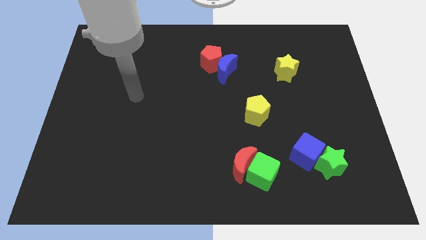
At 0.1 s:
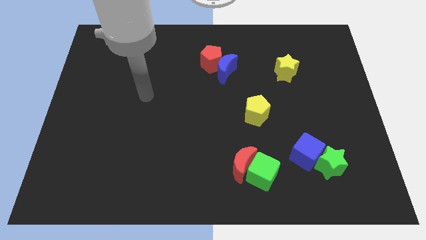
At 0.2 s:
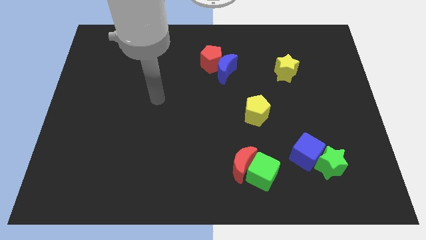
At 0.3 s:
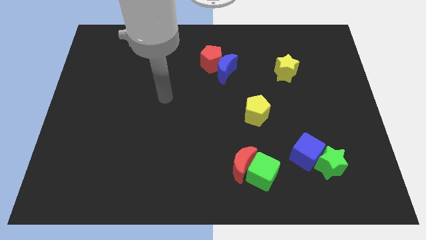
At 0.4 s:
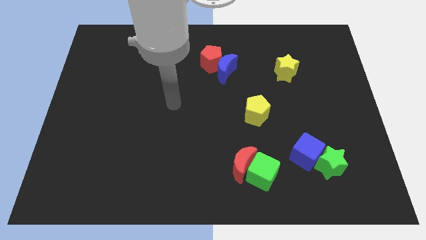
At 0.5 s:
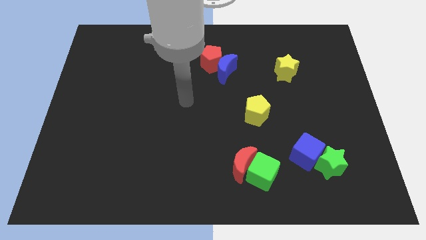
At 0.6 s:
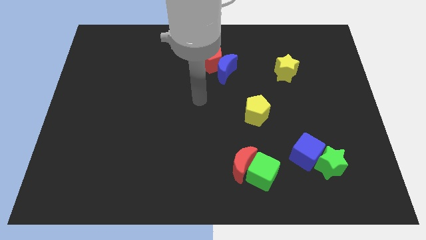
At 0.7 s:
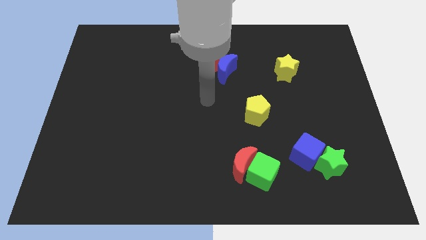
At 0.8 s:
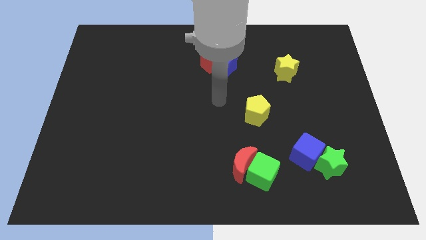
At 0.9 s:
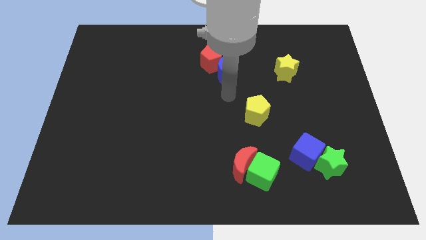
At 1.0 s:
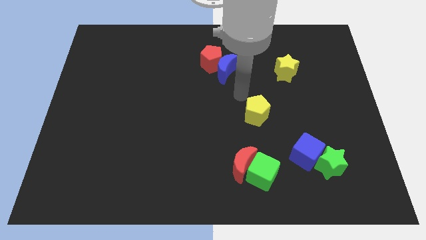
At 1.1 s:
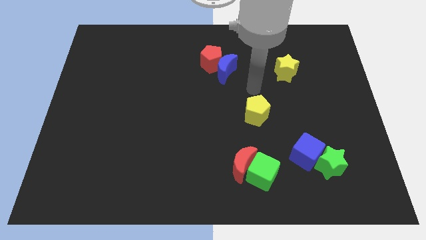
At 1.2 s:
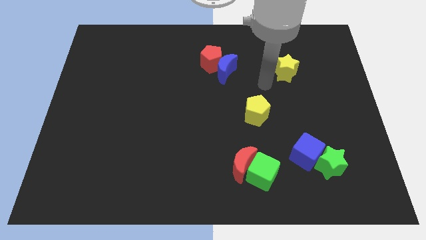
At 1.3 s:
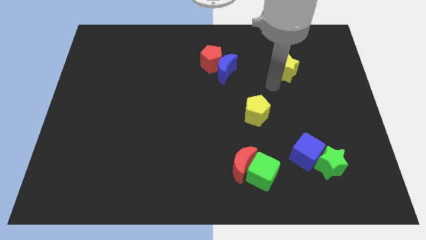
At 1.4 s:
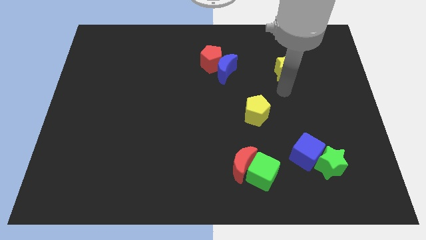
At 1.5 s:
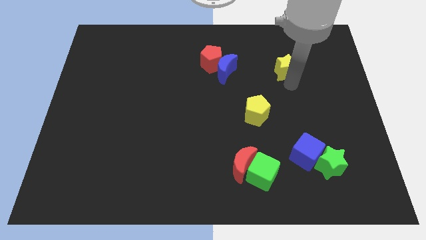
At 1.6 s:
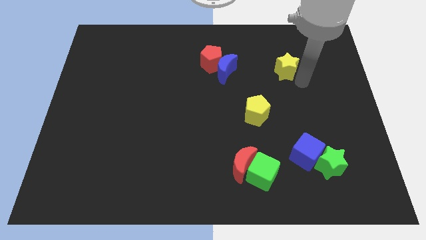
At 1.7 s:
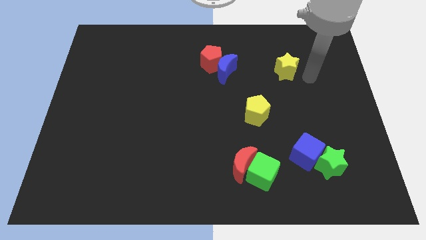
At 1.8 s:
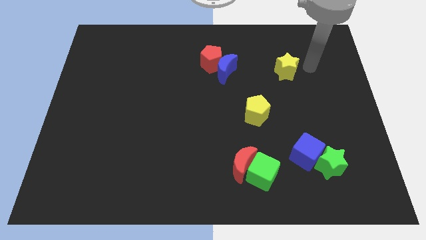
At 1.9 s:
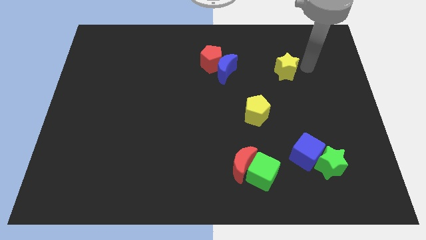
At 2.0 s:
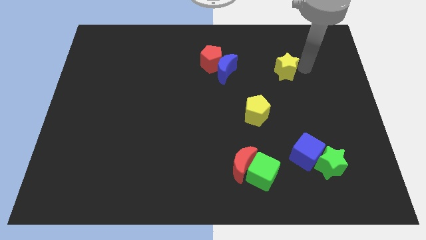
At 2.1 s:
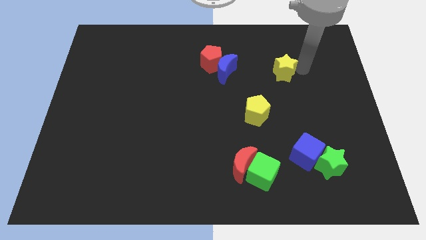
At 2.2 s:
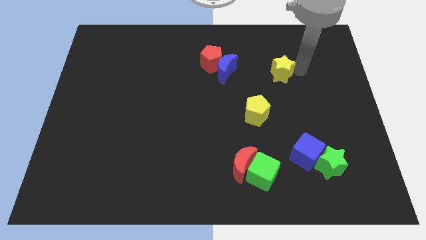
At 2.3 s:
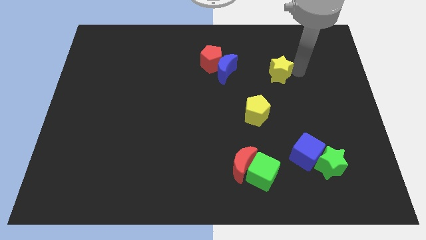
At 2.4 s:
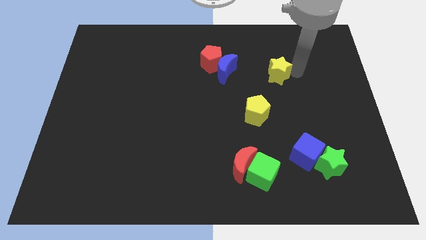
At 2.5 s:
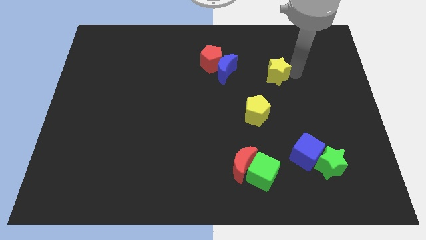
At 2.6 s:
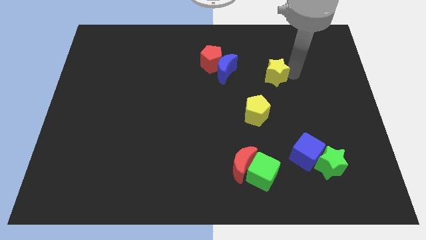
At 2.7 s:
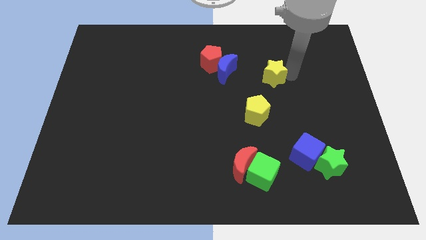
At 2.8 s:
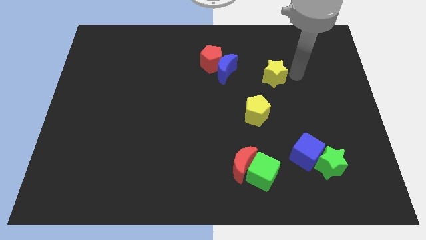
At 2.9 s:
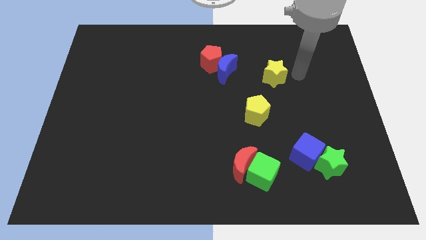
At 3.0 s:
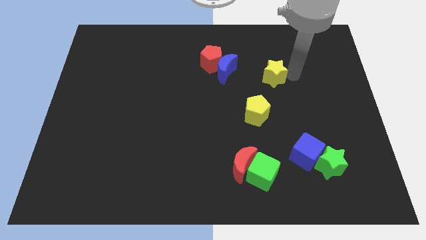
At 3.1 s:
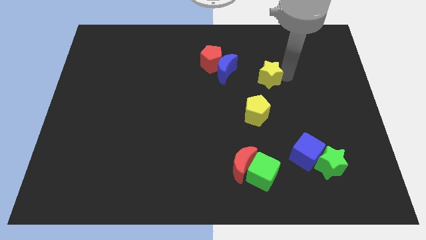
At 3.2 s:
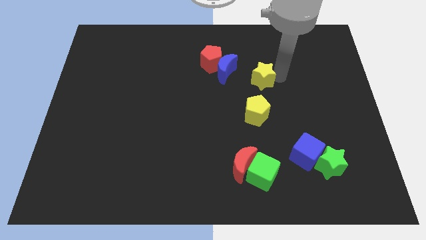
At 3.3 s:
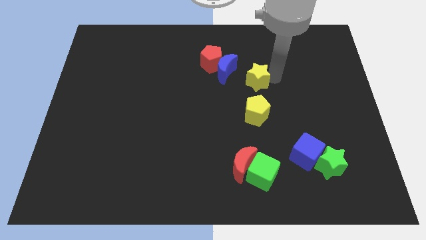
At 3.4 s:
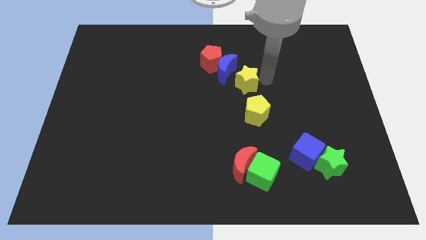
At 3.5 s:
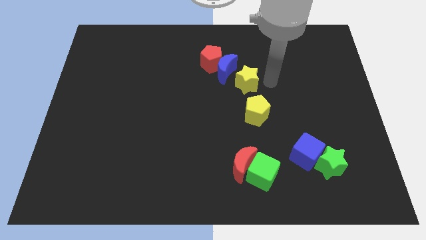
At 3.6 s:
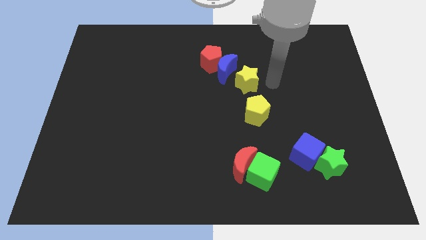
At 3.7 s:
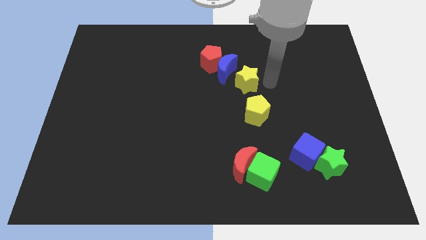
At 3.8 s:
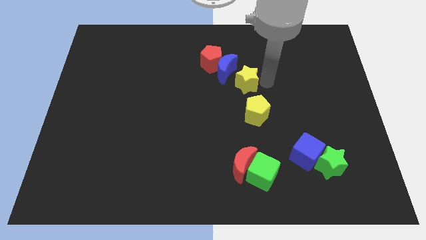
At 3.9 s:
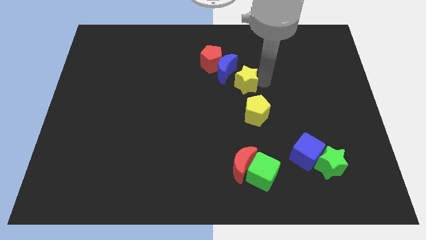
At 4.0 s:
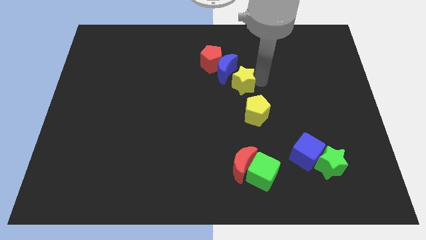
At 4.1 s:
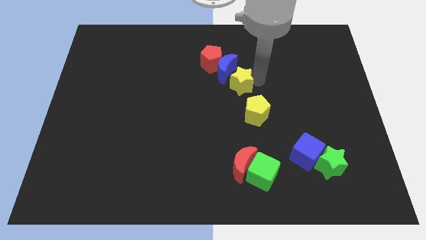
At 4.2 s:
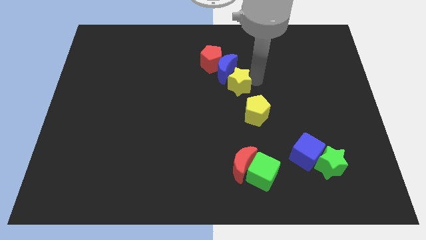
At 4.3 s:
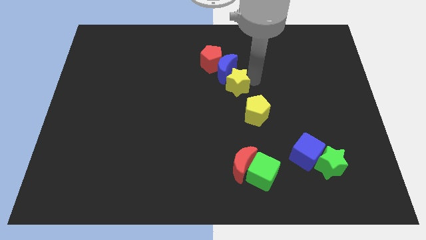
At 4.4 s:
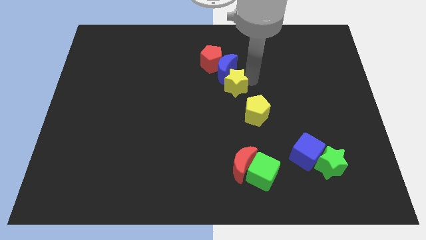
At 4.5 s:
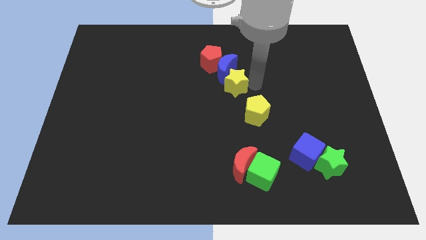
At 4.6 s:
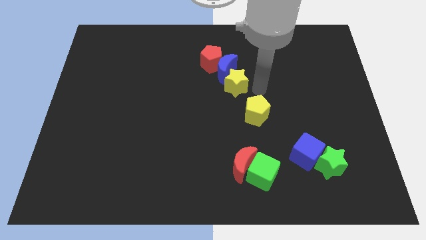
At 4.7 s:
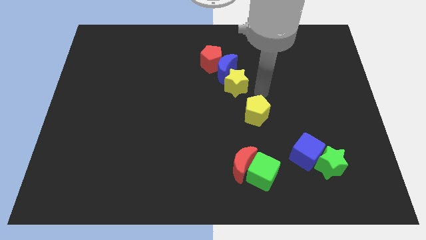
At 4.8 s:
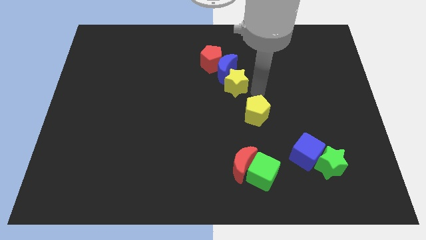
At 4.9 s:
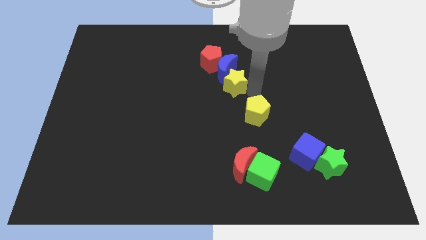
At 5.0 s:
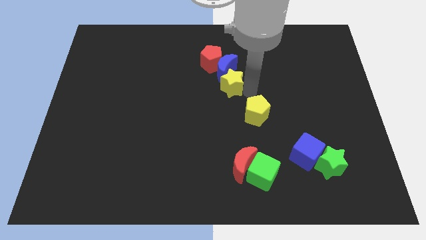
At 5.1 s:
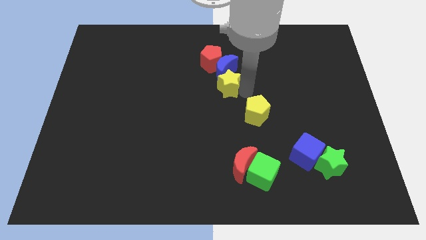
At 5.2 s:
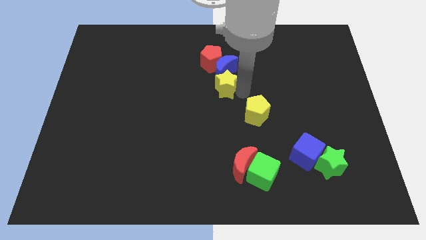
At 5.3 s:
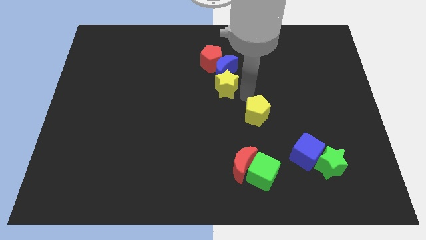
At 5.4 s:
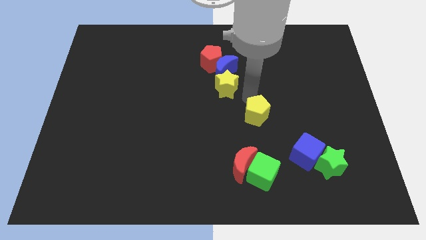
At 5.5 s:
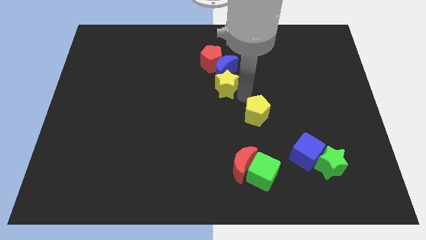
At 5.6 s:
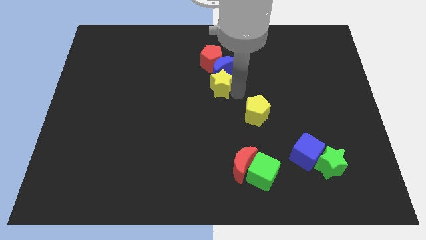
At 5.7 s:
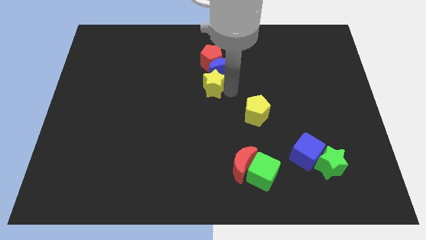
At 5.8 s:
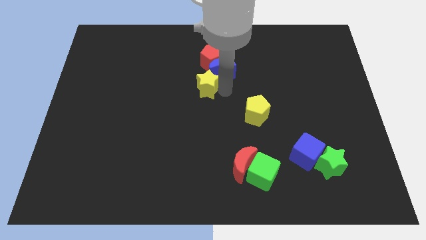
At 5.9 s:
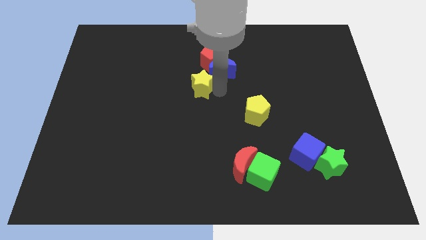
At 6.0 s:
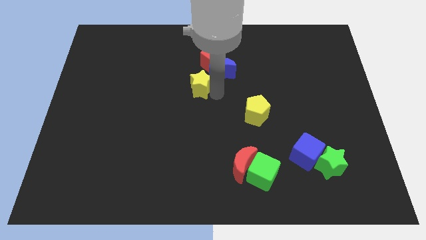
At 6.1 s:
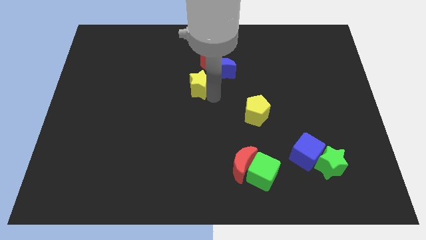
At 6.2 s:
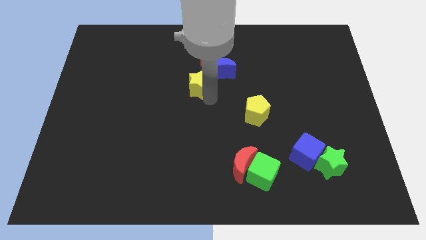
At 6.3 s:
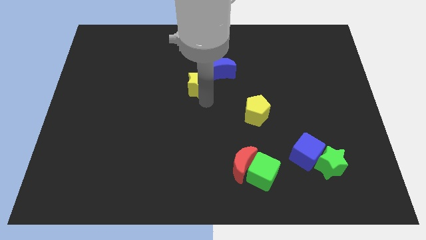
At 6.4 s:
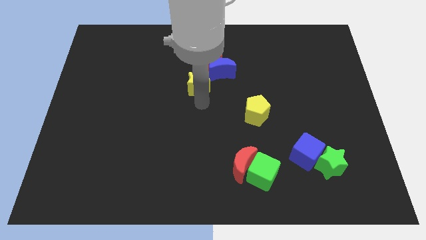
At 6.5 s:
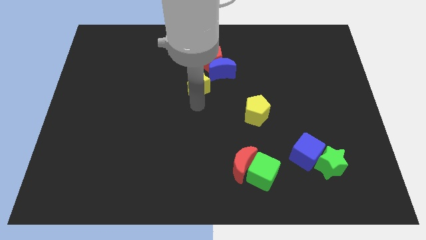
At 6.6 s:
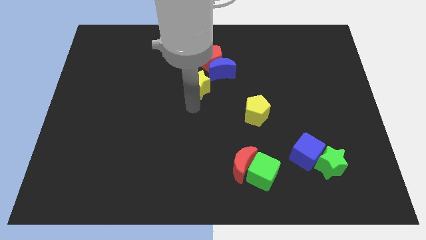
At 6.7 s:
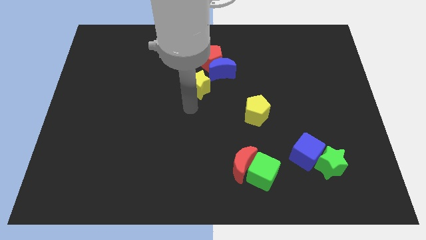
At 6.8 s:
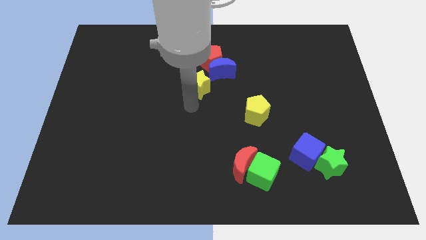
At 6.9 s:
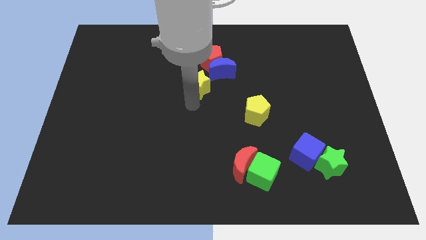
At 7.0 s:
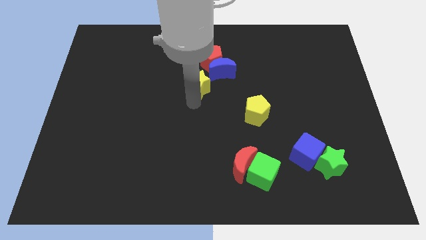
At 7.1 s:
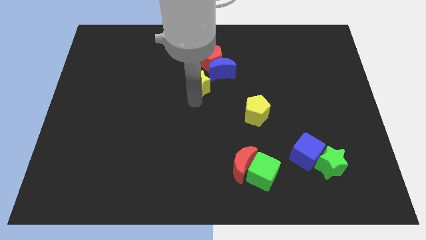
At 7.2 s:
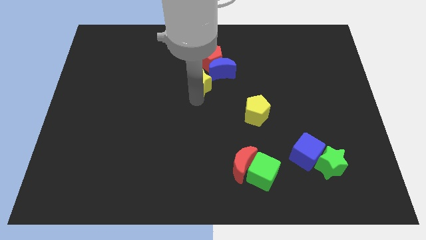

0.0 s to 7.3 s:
slide the yellow star left of the blue moon

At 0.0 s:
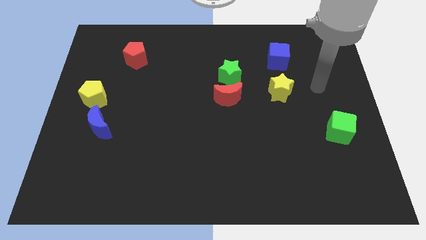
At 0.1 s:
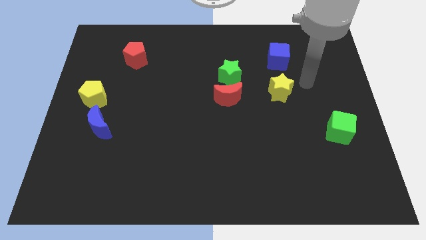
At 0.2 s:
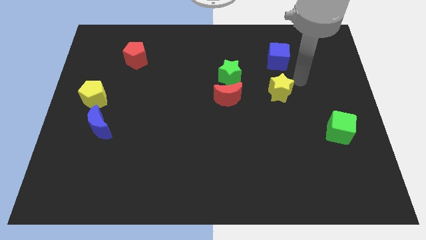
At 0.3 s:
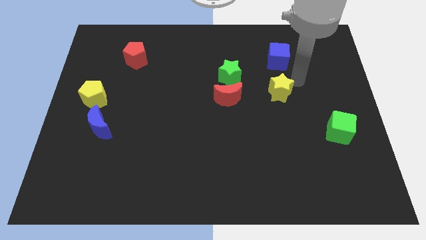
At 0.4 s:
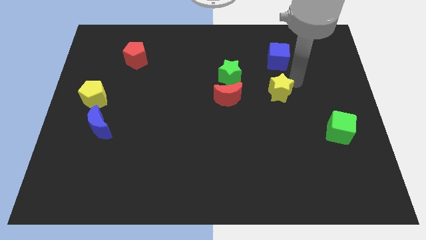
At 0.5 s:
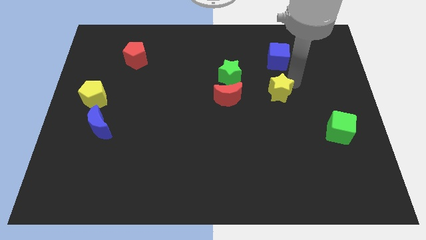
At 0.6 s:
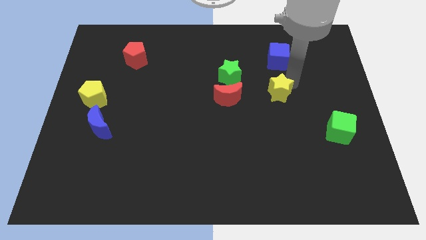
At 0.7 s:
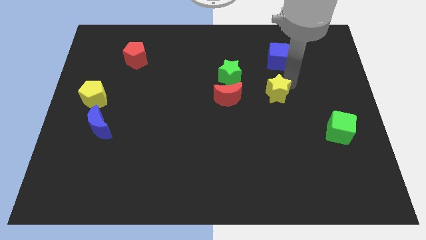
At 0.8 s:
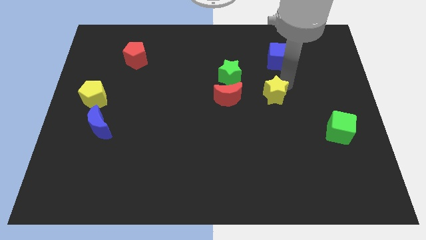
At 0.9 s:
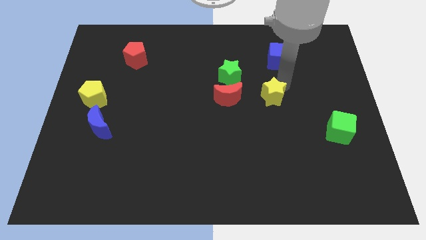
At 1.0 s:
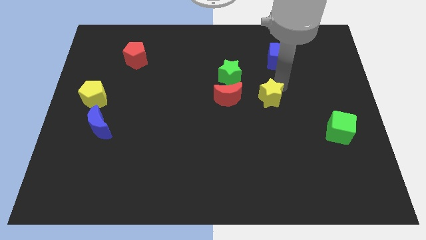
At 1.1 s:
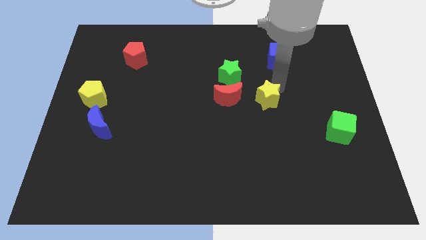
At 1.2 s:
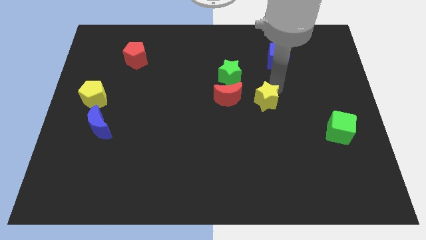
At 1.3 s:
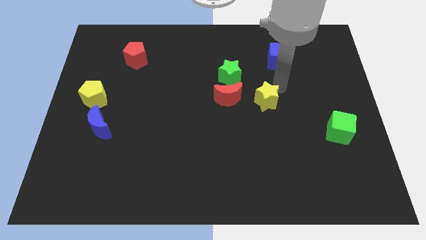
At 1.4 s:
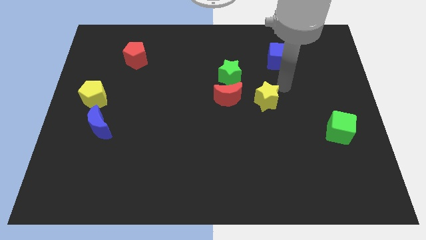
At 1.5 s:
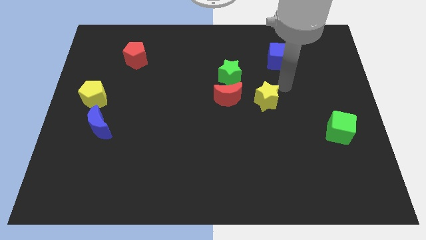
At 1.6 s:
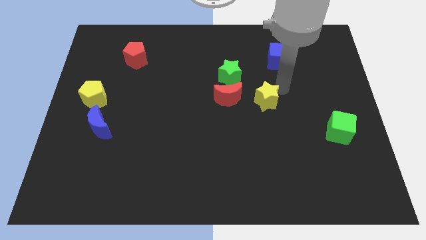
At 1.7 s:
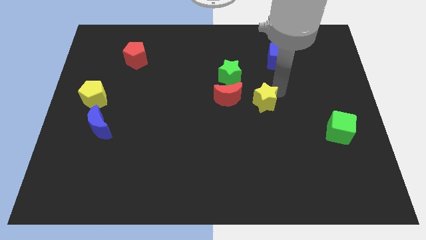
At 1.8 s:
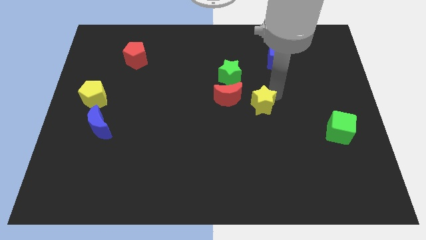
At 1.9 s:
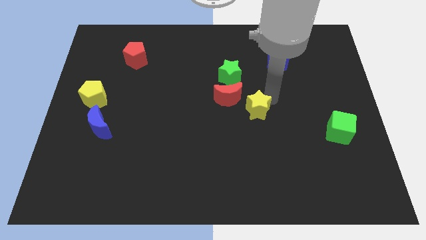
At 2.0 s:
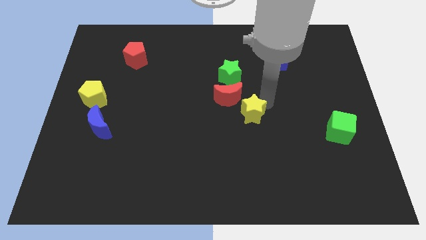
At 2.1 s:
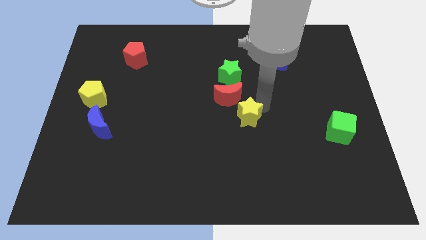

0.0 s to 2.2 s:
put the yellow star to the bottom of the red moon
